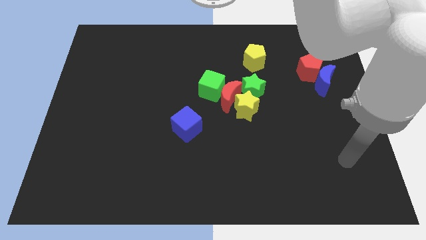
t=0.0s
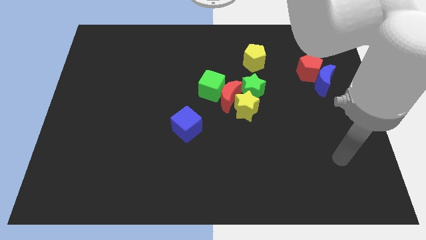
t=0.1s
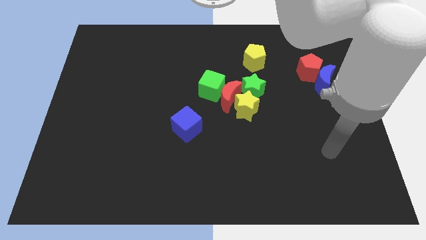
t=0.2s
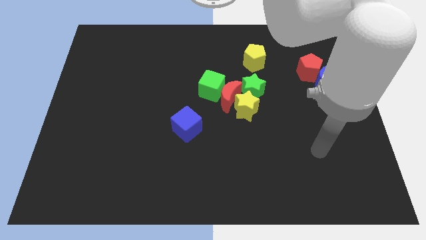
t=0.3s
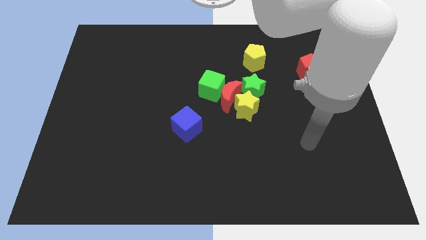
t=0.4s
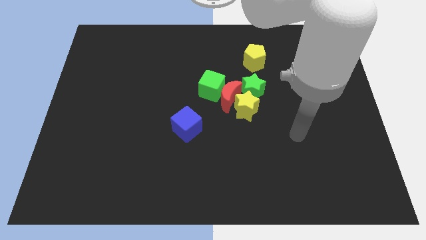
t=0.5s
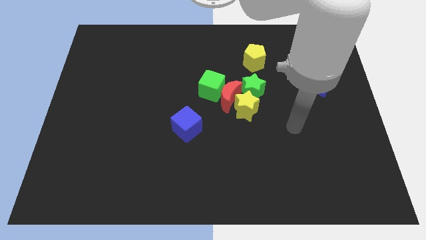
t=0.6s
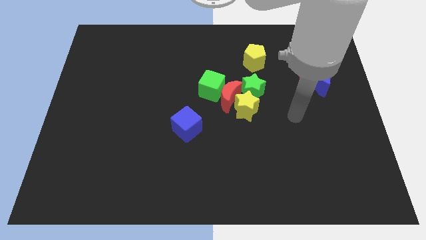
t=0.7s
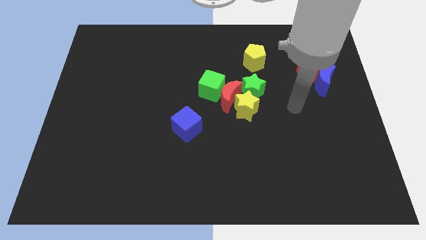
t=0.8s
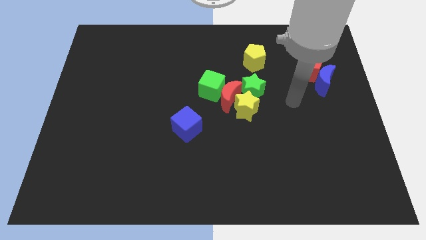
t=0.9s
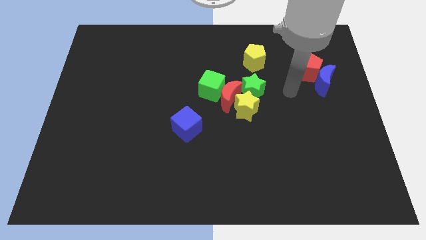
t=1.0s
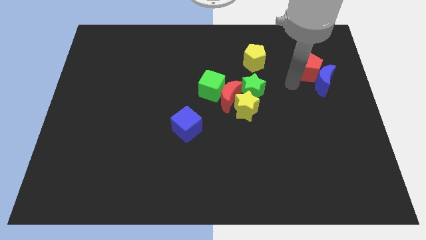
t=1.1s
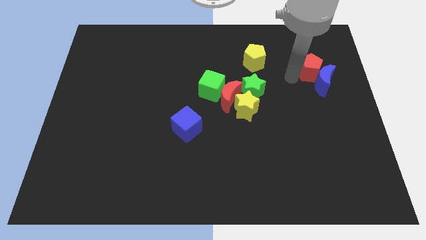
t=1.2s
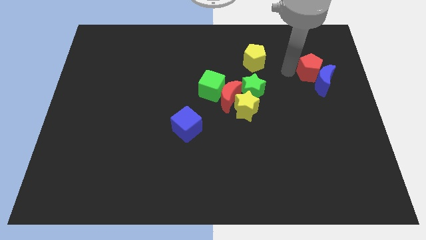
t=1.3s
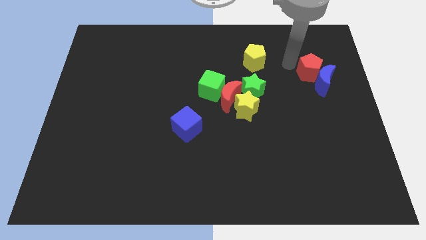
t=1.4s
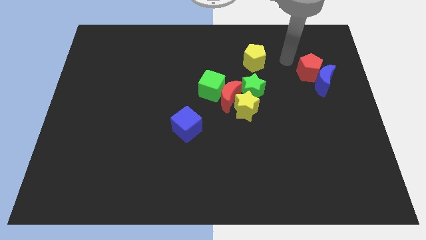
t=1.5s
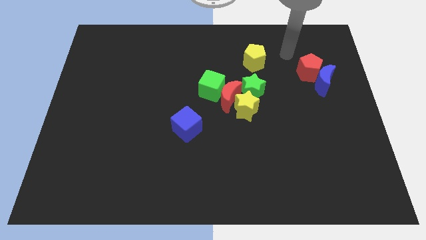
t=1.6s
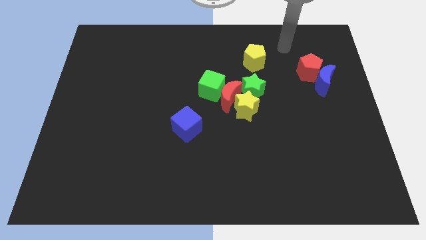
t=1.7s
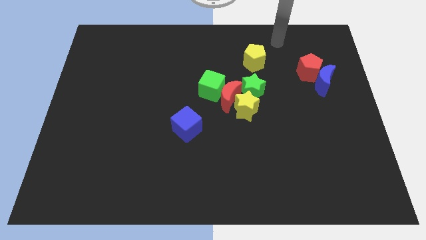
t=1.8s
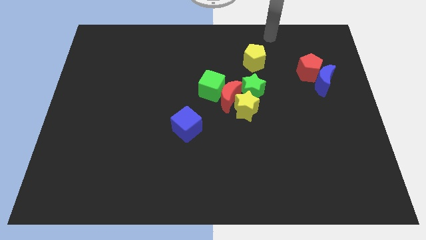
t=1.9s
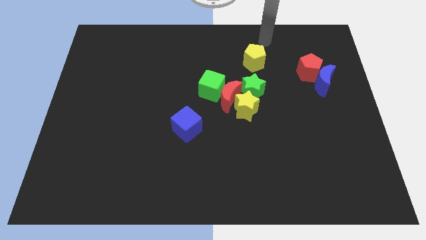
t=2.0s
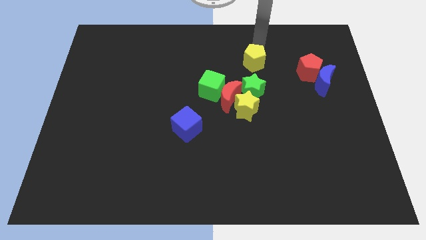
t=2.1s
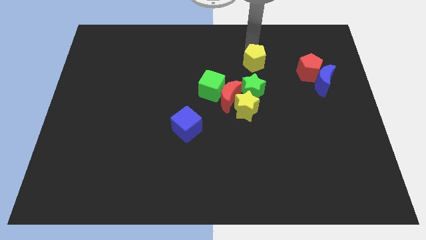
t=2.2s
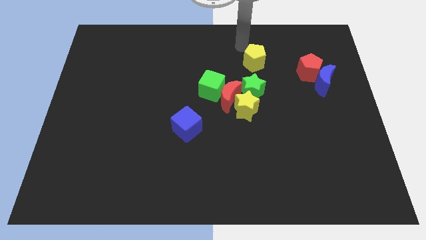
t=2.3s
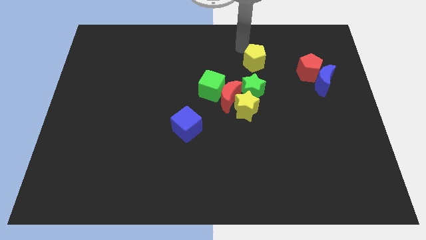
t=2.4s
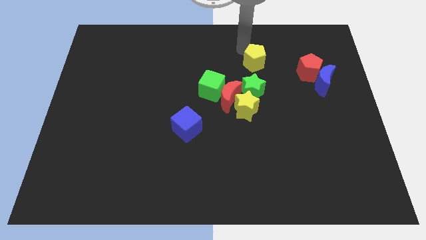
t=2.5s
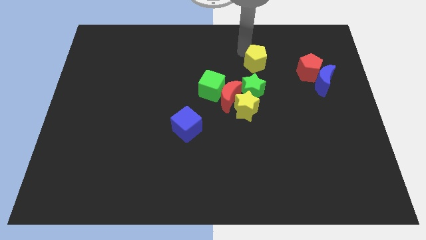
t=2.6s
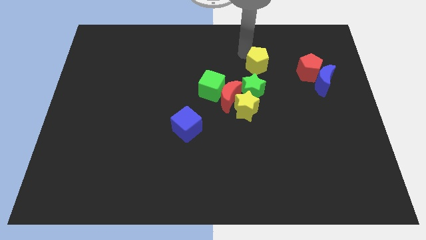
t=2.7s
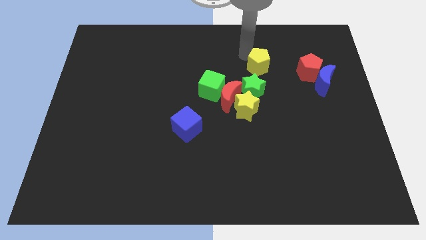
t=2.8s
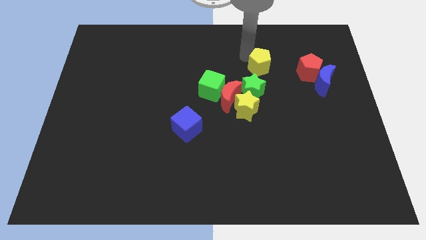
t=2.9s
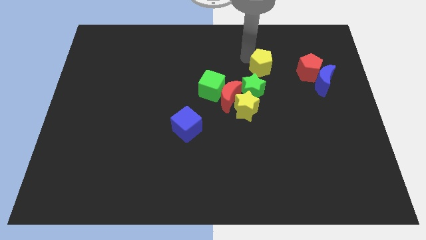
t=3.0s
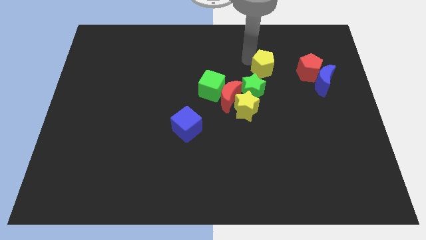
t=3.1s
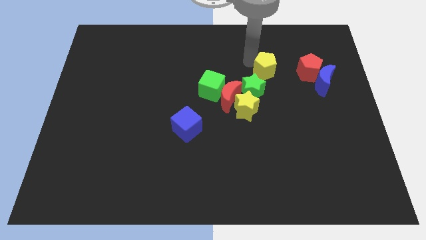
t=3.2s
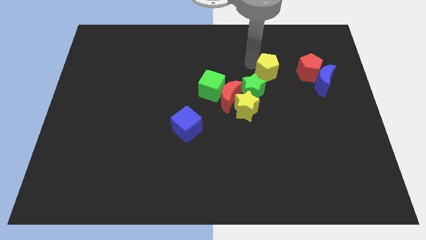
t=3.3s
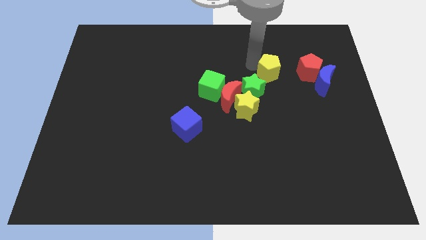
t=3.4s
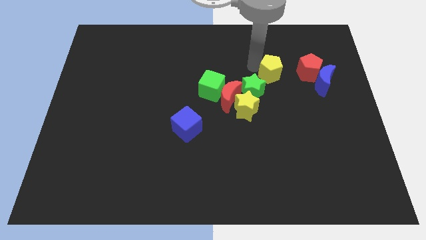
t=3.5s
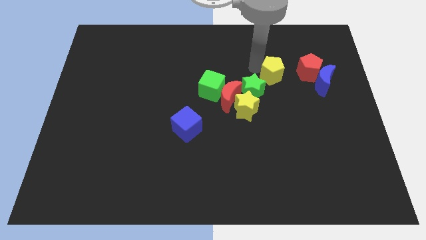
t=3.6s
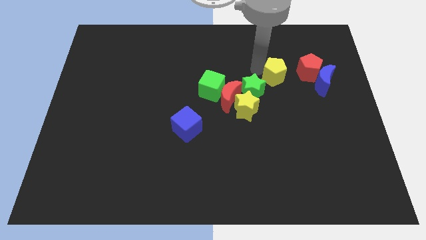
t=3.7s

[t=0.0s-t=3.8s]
push the yellow pentagon slightly down and then to the right

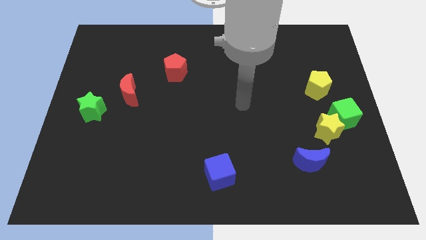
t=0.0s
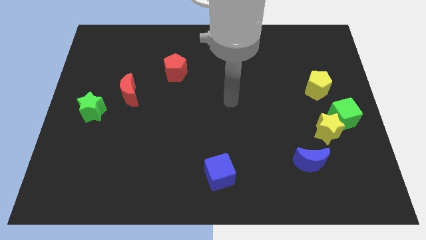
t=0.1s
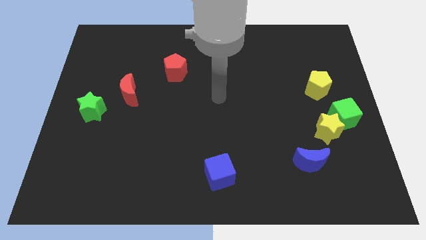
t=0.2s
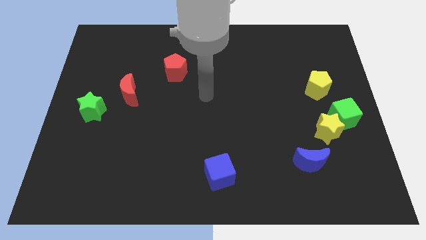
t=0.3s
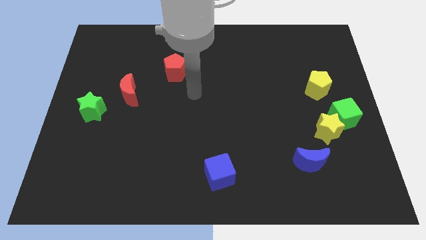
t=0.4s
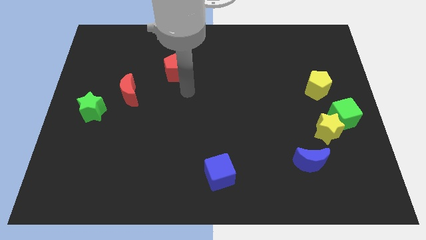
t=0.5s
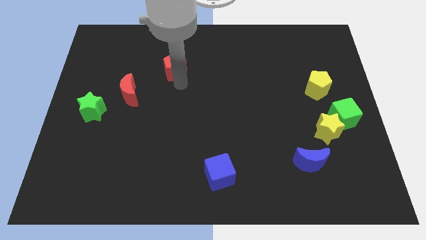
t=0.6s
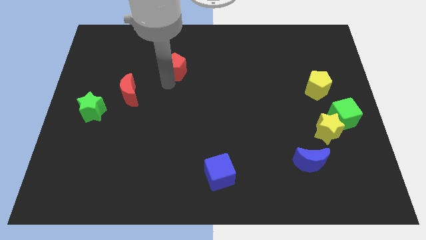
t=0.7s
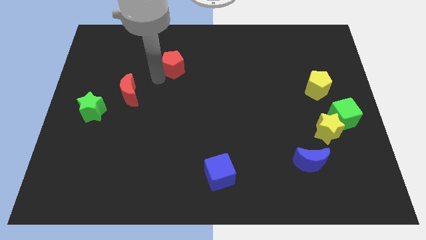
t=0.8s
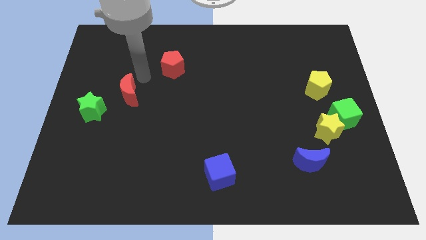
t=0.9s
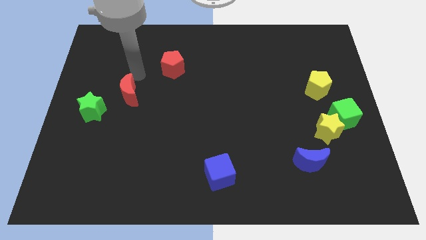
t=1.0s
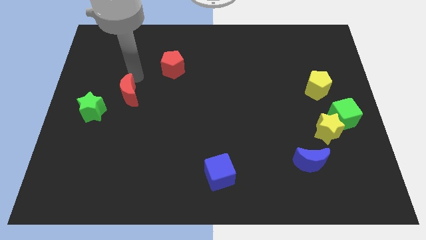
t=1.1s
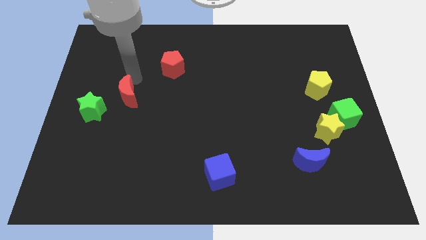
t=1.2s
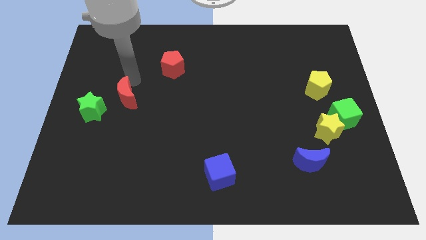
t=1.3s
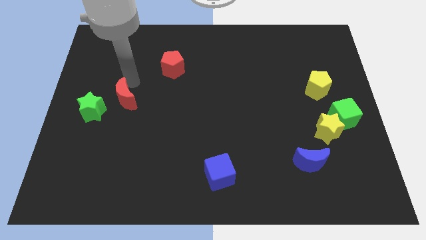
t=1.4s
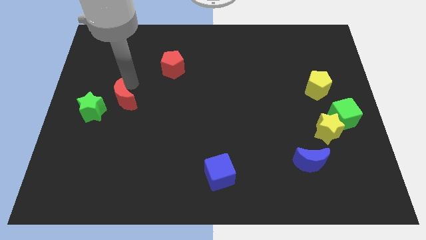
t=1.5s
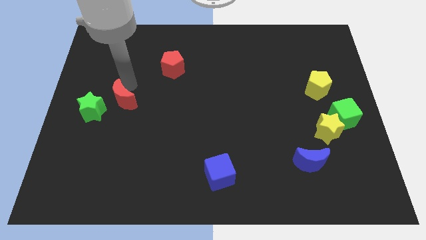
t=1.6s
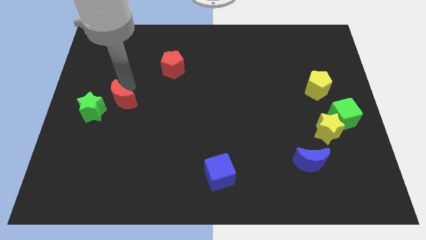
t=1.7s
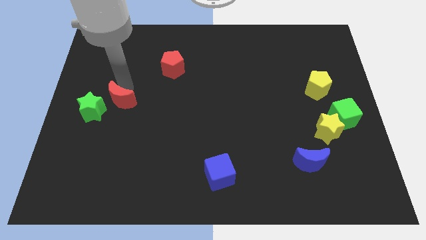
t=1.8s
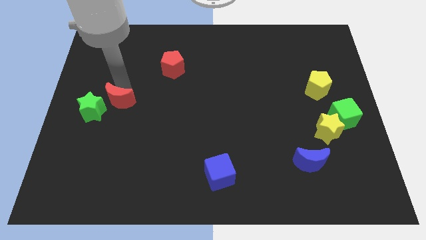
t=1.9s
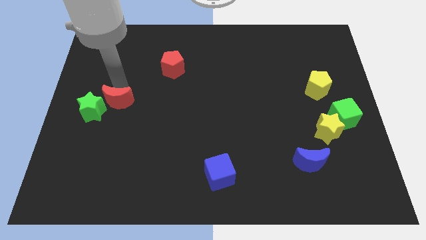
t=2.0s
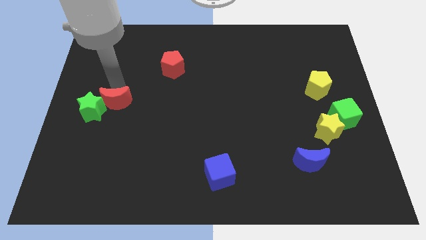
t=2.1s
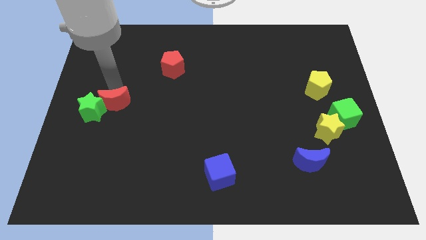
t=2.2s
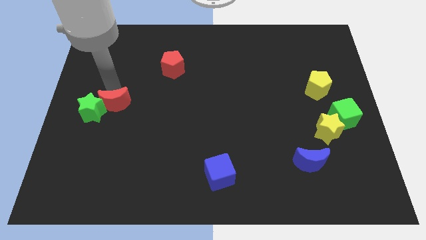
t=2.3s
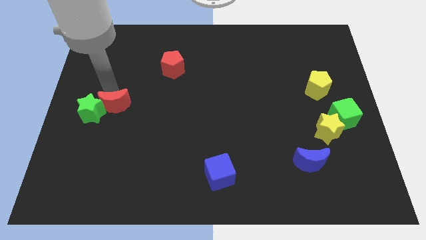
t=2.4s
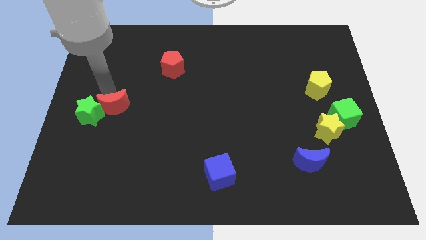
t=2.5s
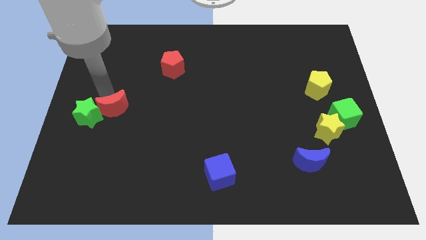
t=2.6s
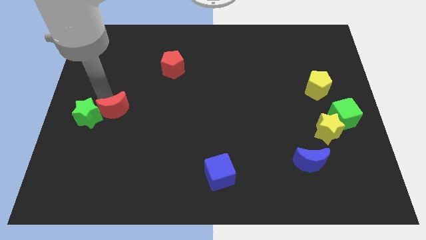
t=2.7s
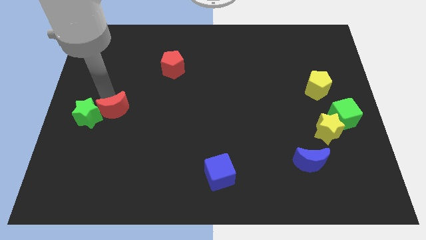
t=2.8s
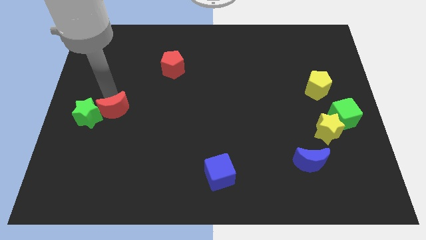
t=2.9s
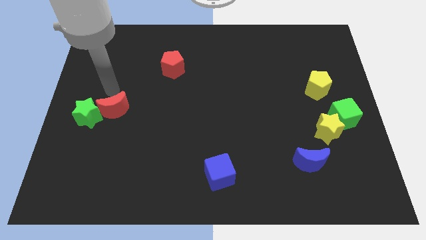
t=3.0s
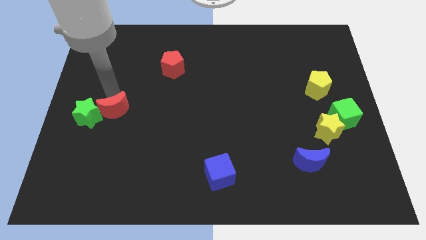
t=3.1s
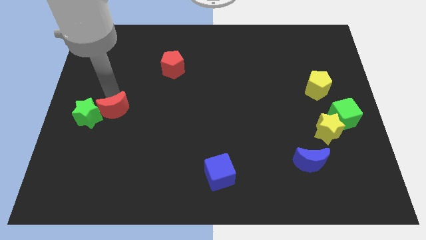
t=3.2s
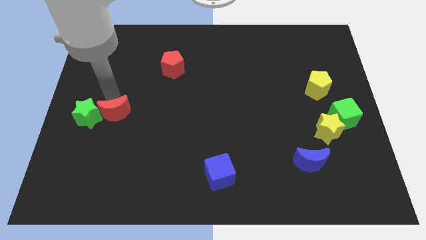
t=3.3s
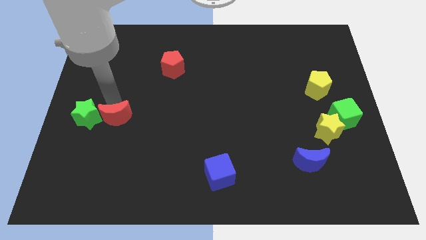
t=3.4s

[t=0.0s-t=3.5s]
push the red moon somewhat down

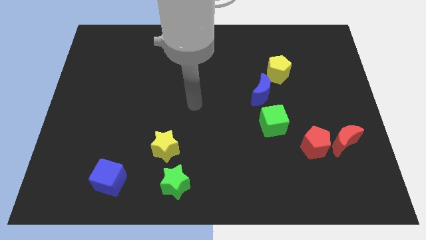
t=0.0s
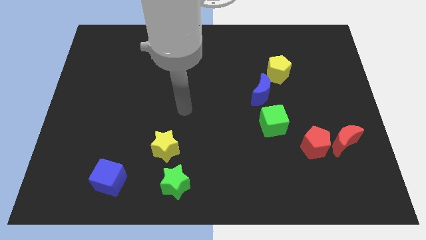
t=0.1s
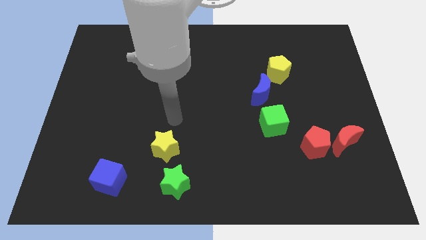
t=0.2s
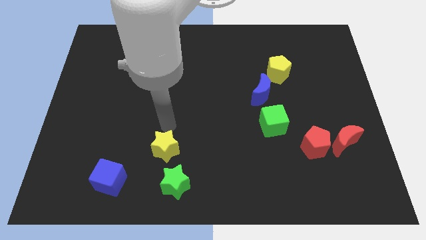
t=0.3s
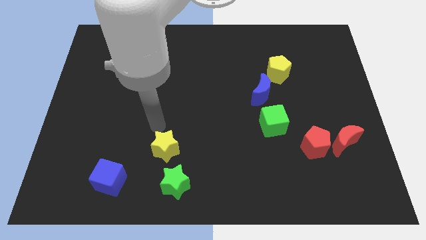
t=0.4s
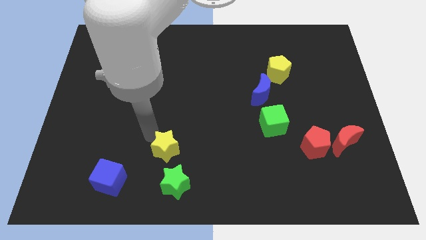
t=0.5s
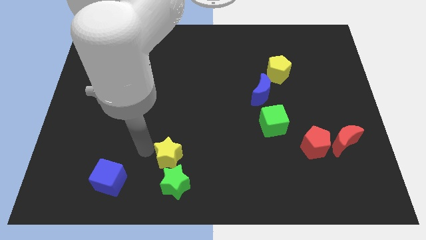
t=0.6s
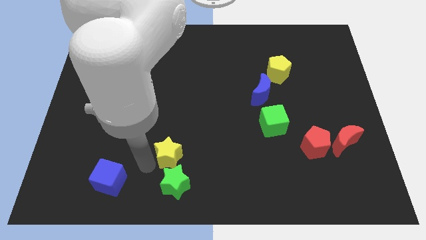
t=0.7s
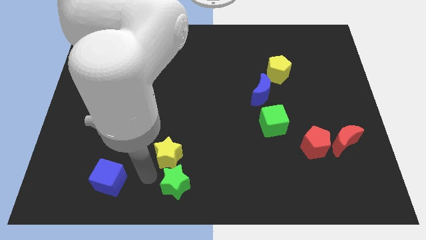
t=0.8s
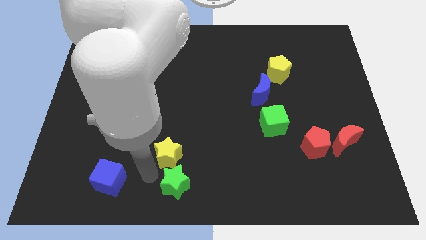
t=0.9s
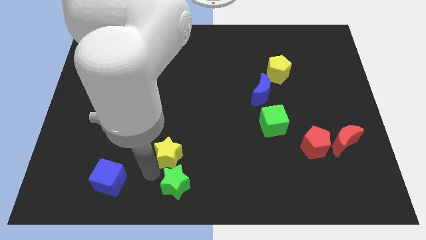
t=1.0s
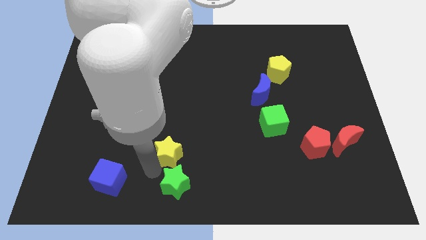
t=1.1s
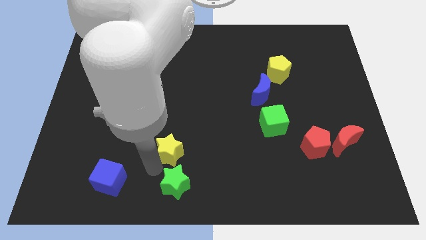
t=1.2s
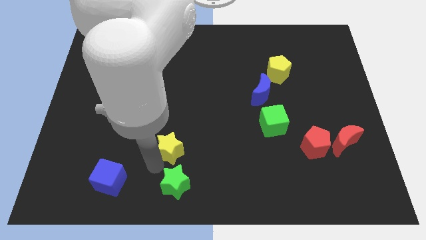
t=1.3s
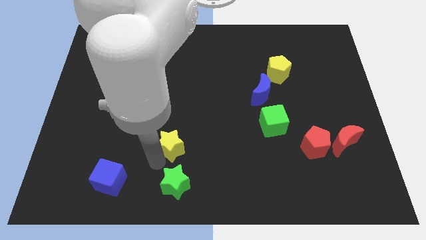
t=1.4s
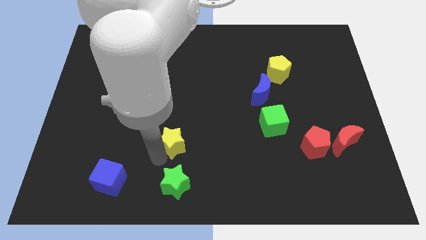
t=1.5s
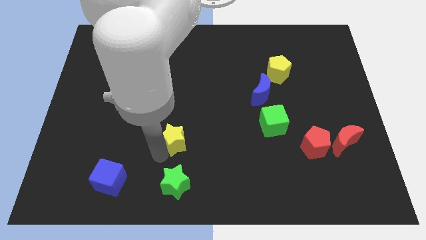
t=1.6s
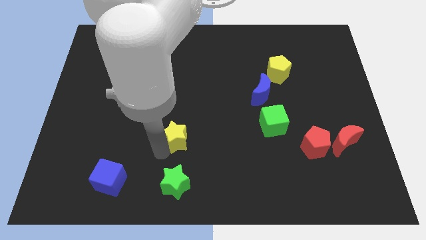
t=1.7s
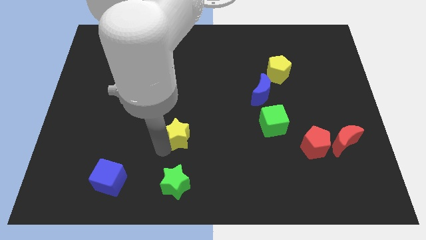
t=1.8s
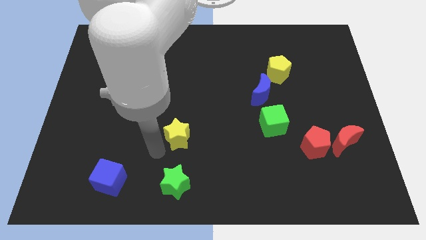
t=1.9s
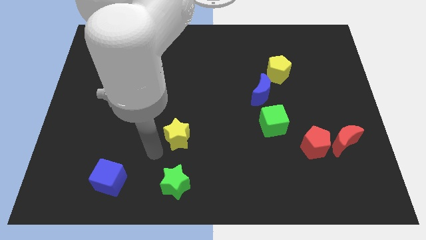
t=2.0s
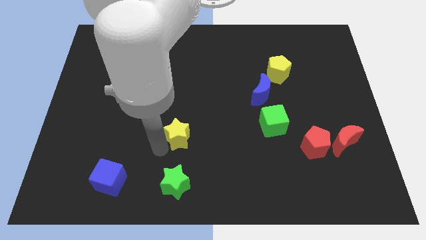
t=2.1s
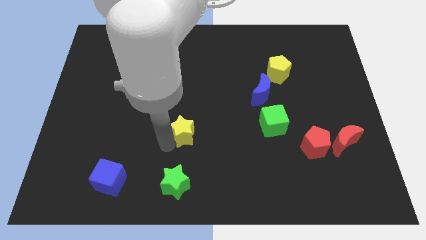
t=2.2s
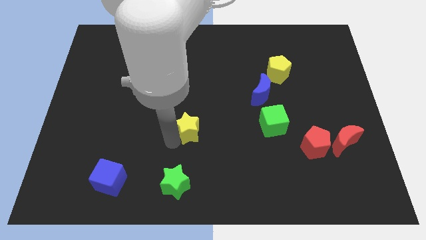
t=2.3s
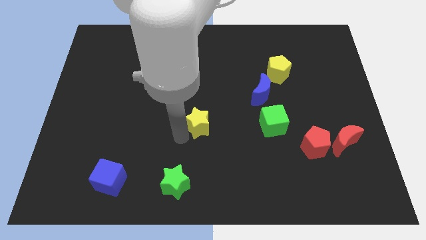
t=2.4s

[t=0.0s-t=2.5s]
slide the yellow star slightly up and to the right diagonally
